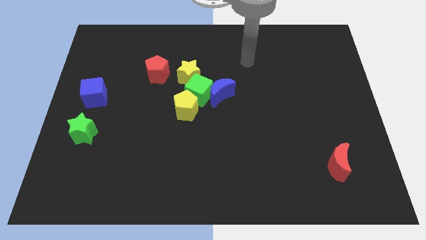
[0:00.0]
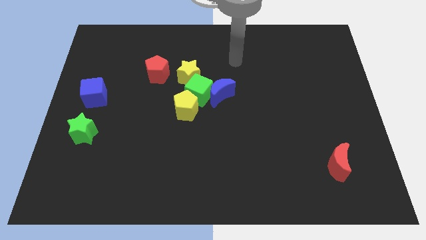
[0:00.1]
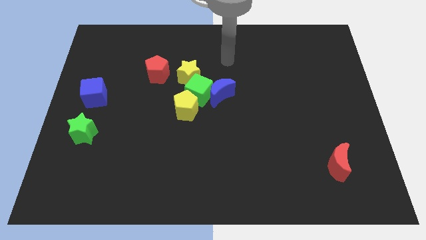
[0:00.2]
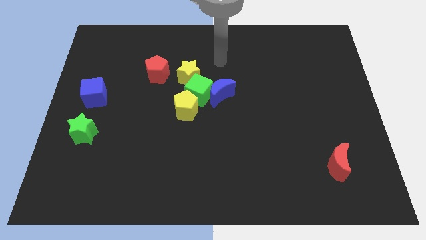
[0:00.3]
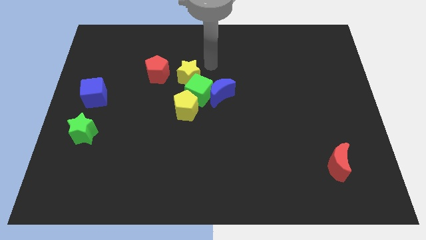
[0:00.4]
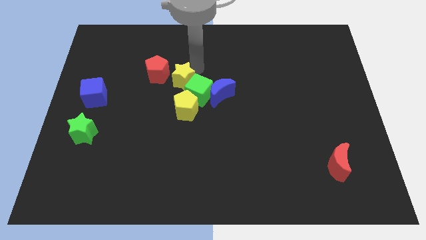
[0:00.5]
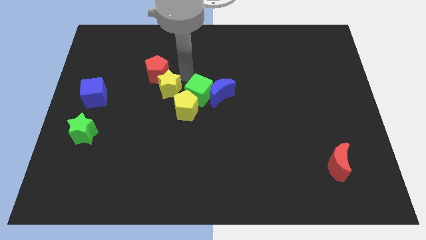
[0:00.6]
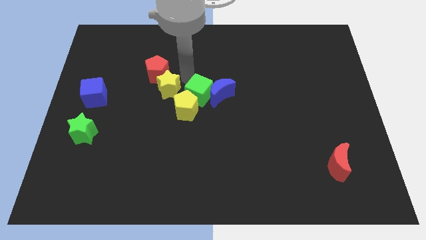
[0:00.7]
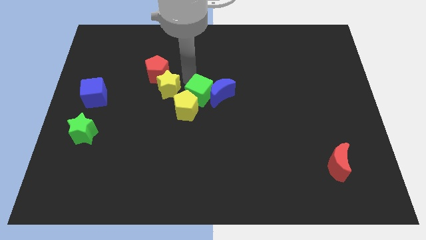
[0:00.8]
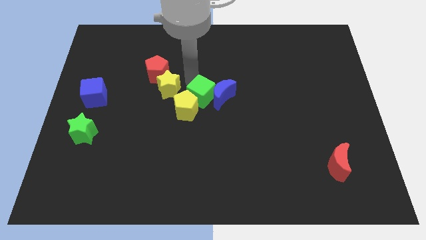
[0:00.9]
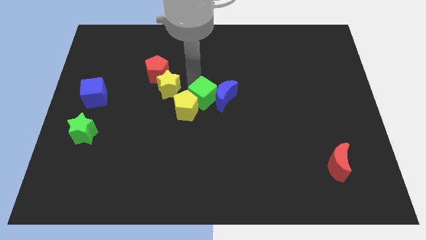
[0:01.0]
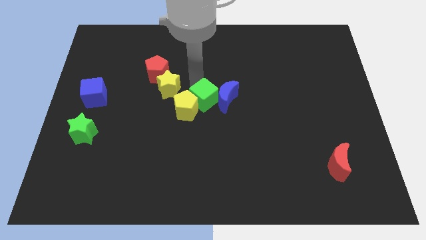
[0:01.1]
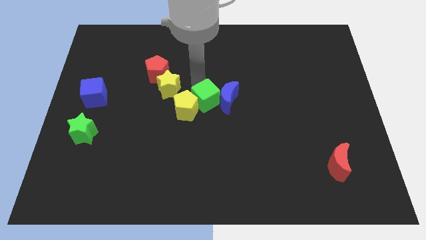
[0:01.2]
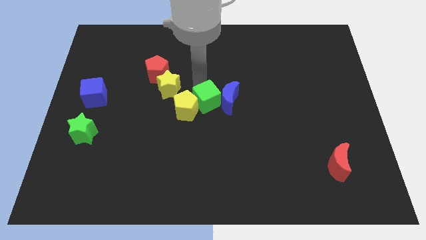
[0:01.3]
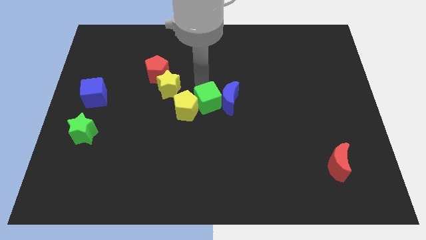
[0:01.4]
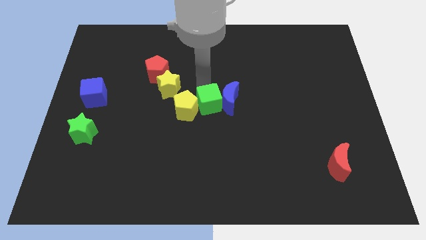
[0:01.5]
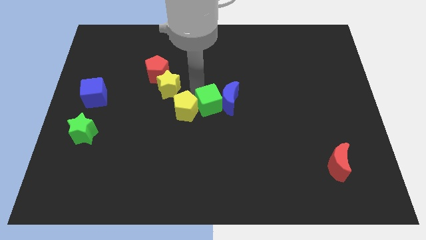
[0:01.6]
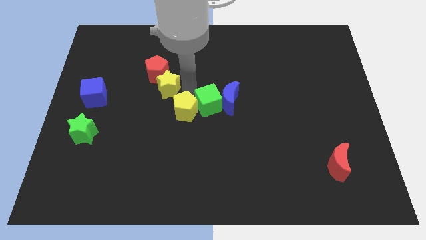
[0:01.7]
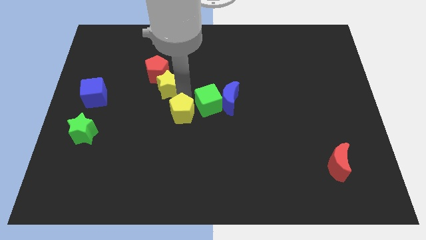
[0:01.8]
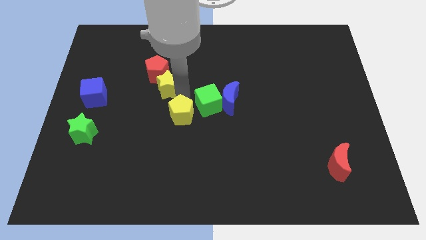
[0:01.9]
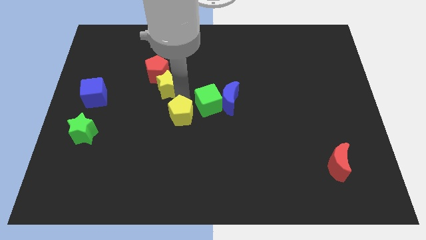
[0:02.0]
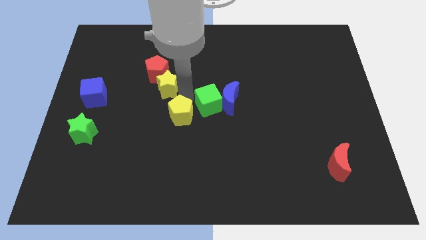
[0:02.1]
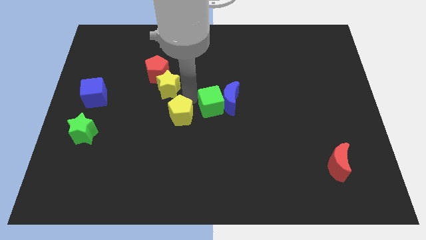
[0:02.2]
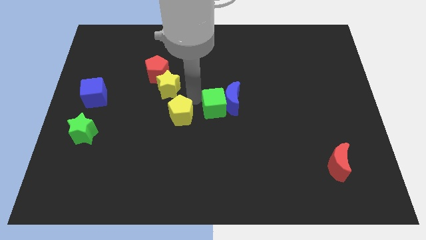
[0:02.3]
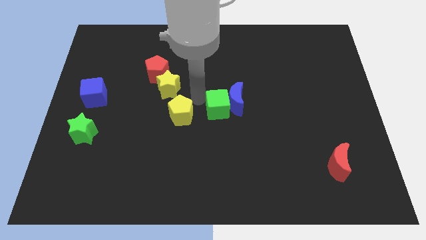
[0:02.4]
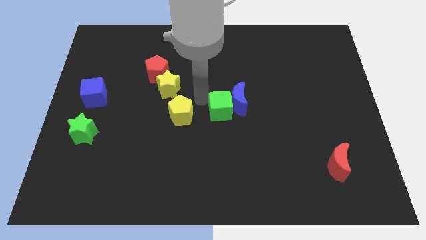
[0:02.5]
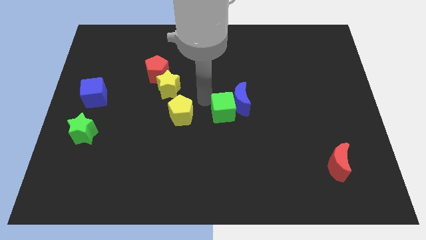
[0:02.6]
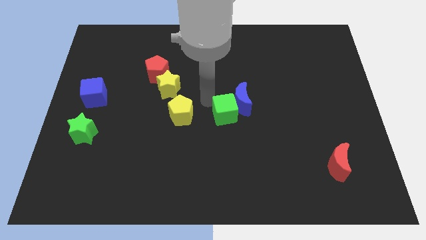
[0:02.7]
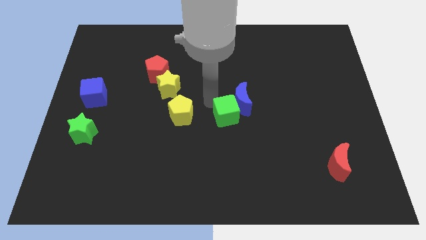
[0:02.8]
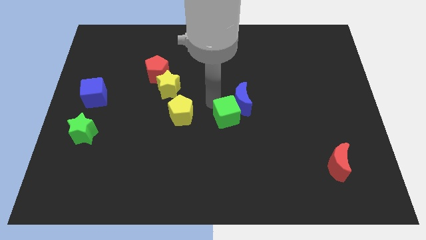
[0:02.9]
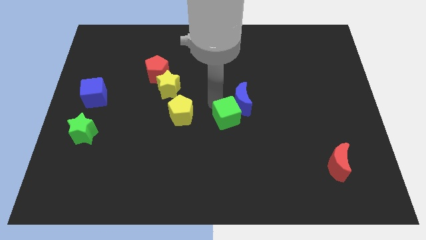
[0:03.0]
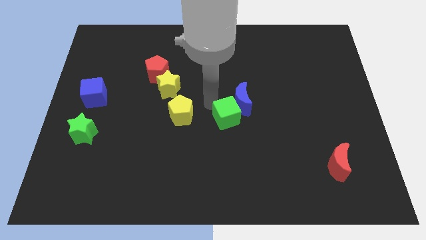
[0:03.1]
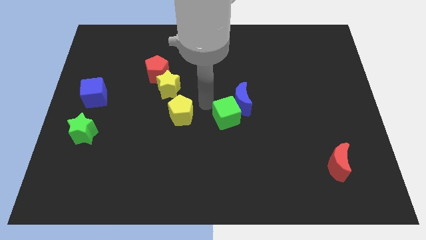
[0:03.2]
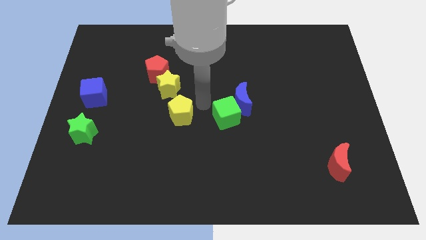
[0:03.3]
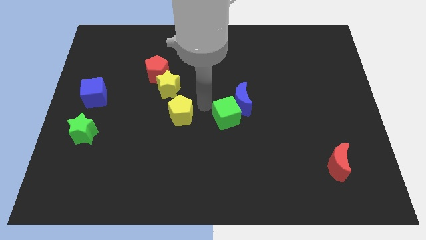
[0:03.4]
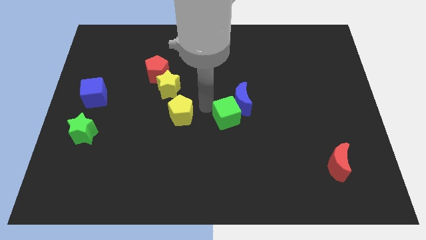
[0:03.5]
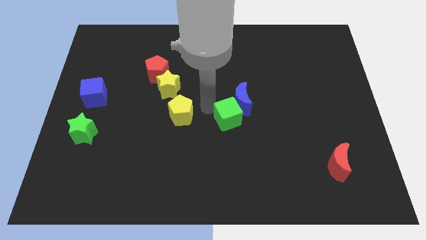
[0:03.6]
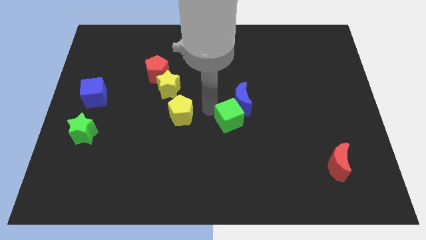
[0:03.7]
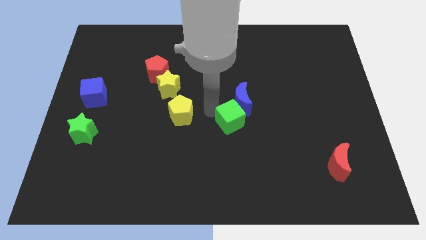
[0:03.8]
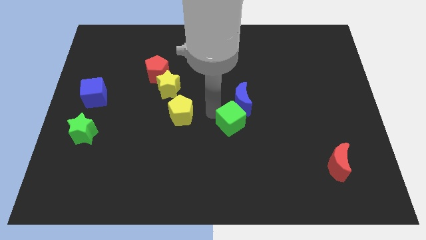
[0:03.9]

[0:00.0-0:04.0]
move the green cube away from the blue moon, yellow pentagon, and yellow star

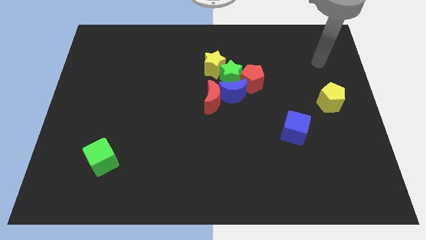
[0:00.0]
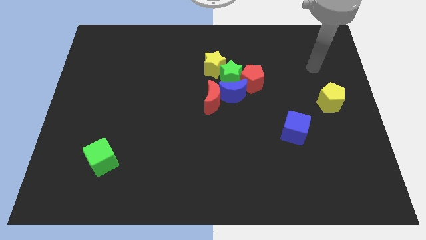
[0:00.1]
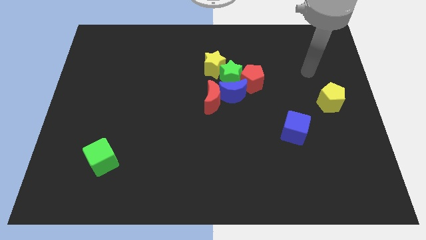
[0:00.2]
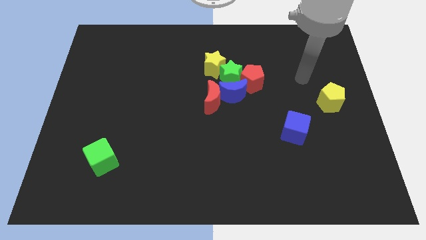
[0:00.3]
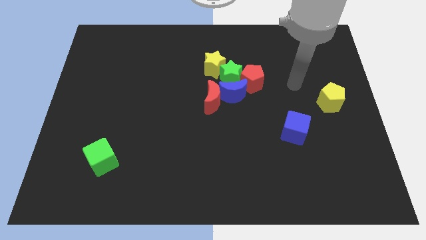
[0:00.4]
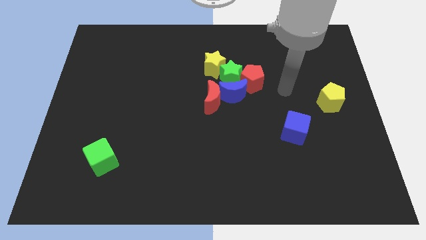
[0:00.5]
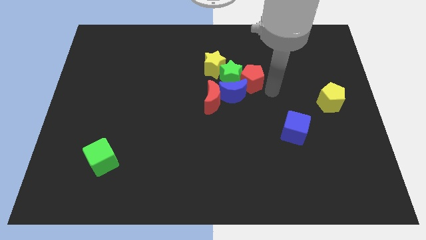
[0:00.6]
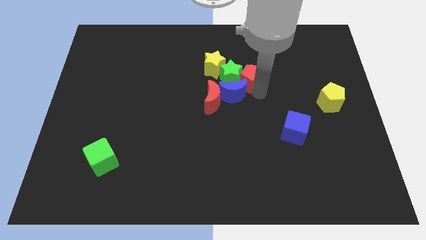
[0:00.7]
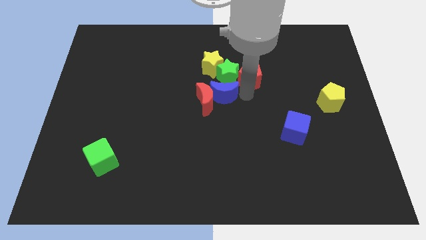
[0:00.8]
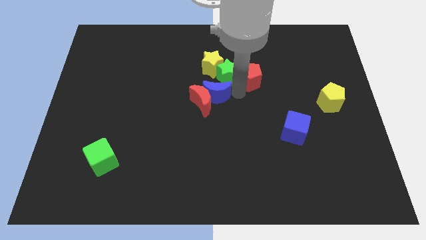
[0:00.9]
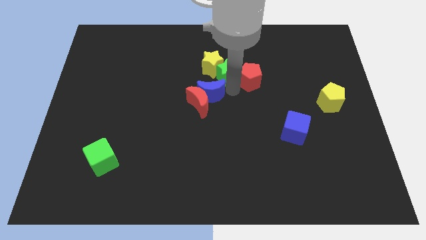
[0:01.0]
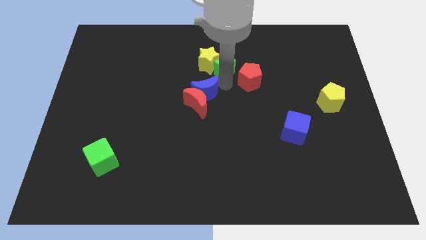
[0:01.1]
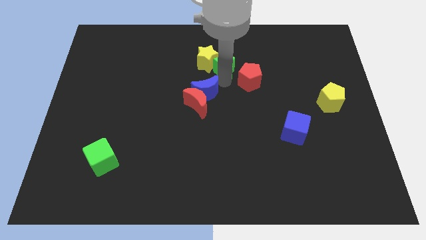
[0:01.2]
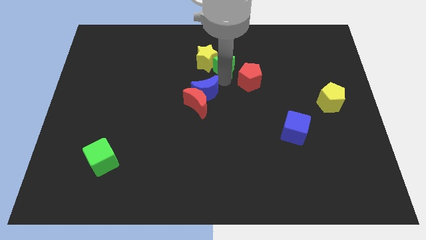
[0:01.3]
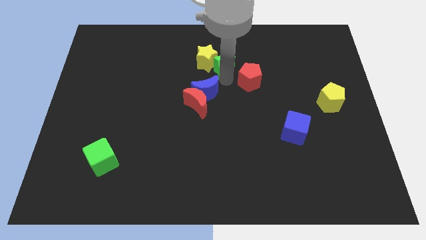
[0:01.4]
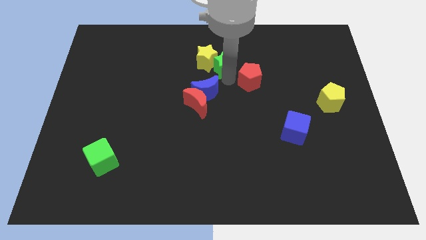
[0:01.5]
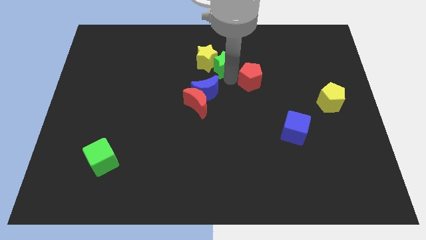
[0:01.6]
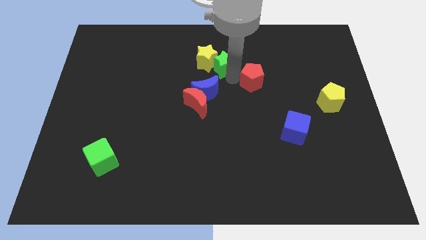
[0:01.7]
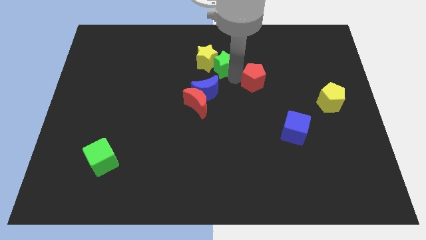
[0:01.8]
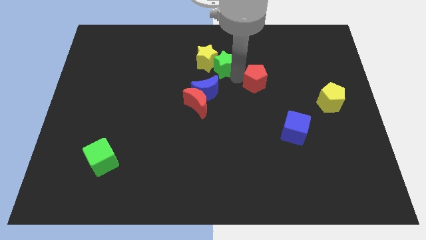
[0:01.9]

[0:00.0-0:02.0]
move the red pentagon away from the green star and blue moon

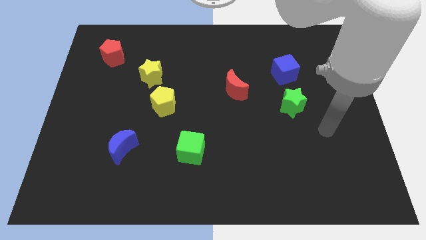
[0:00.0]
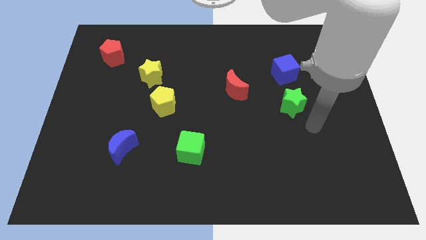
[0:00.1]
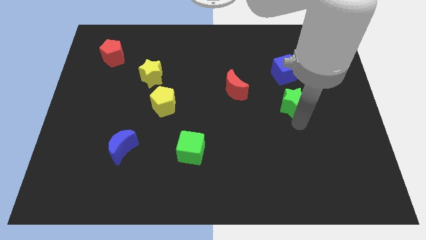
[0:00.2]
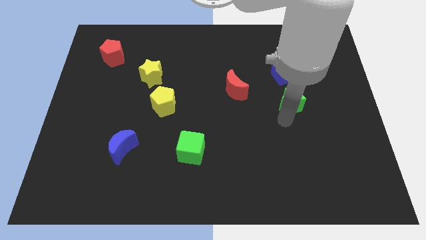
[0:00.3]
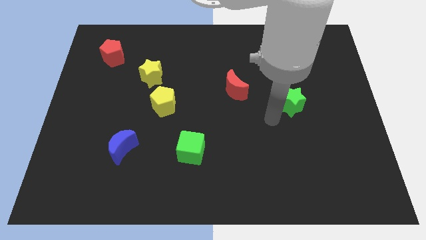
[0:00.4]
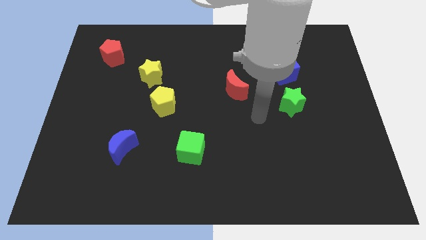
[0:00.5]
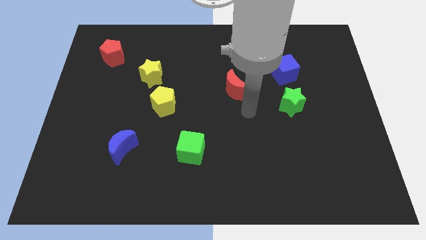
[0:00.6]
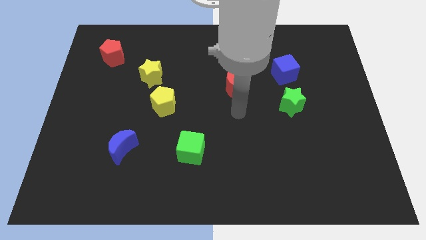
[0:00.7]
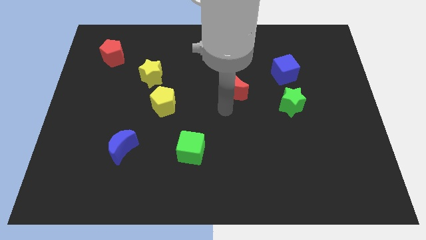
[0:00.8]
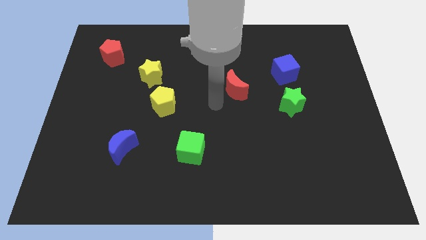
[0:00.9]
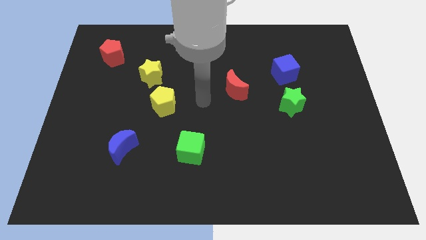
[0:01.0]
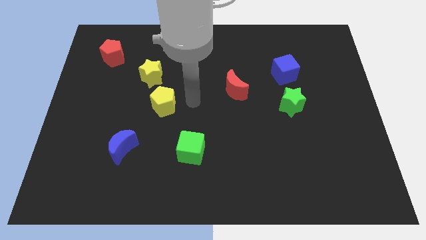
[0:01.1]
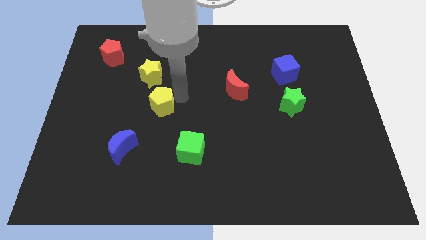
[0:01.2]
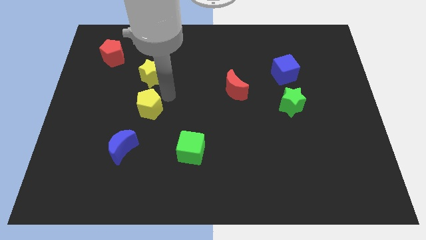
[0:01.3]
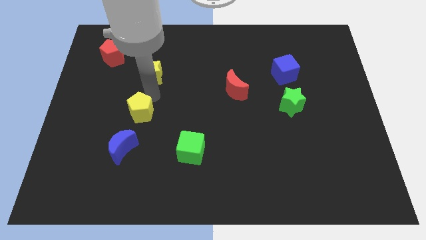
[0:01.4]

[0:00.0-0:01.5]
separate the yellow star from the yellow pentagon

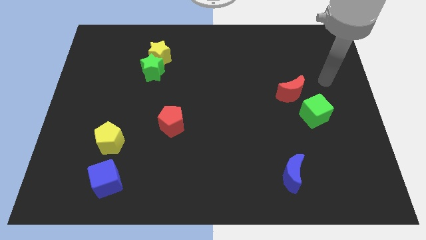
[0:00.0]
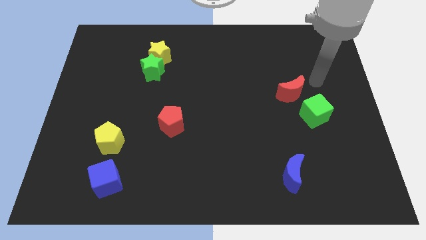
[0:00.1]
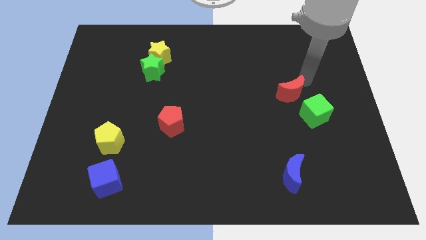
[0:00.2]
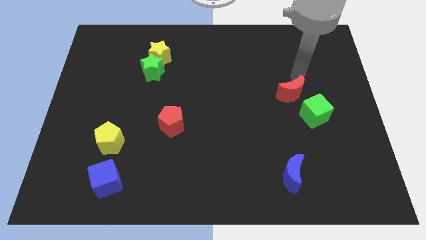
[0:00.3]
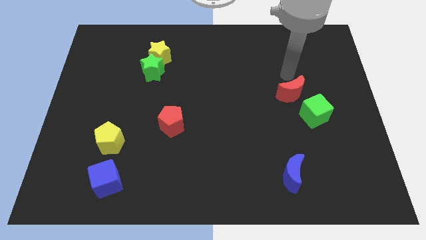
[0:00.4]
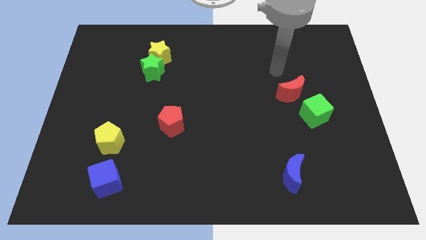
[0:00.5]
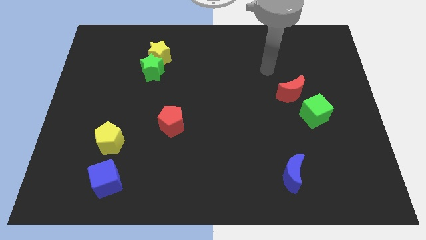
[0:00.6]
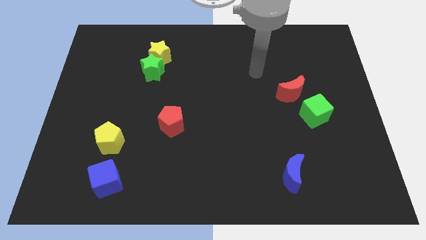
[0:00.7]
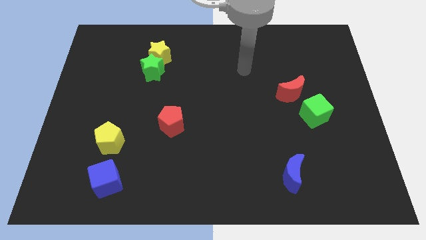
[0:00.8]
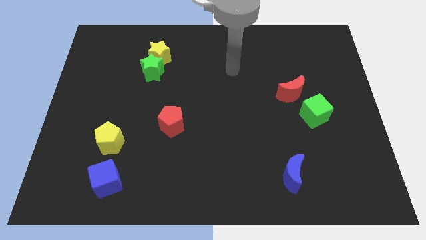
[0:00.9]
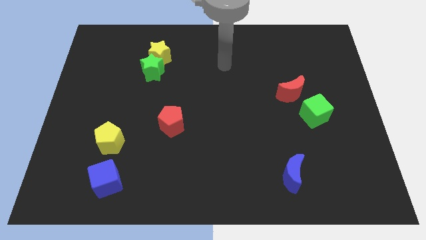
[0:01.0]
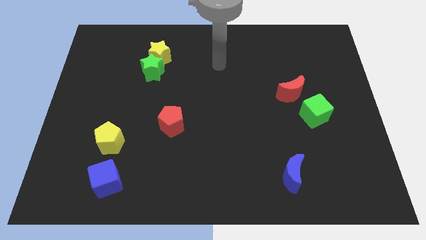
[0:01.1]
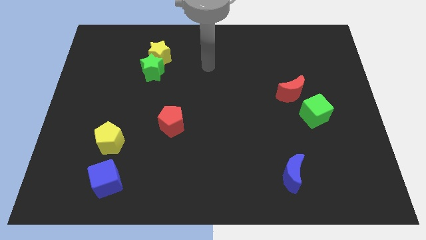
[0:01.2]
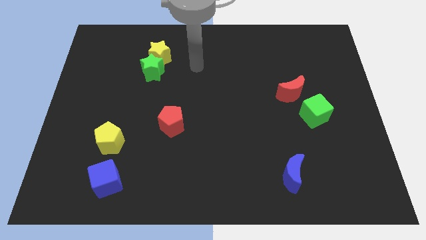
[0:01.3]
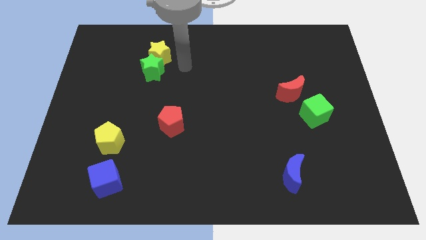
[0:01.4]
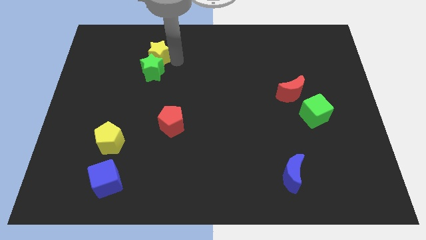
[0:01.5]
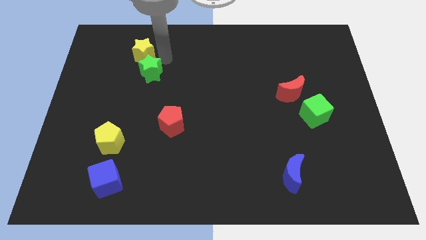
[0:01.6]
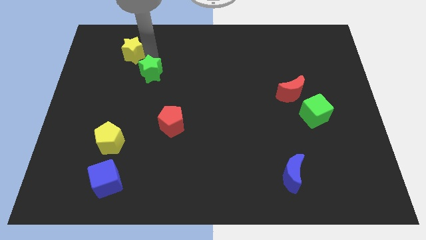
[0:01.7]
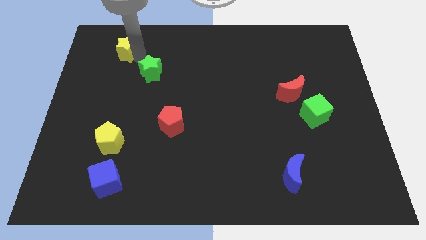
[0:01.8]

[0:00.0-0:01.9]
pull the green star apart from the yellow star
